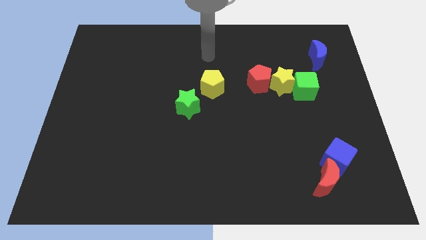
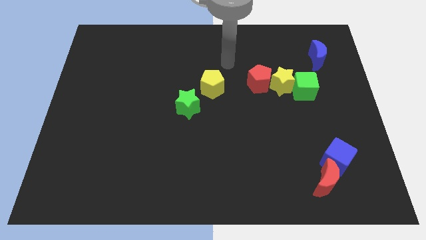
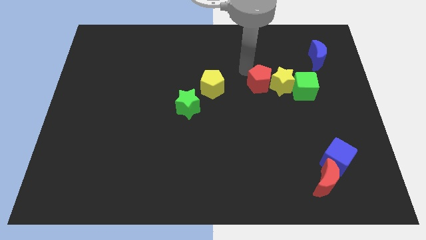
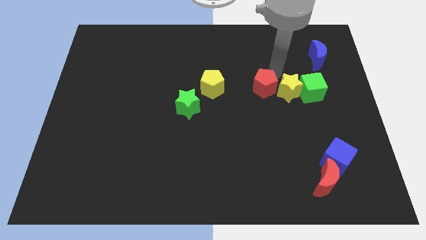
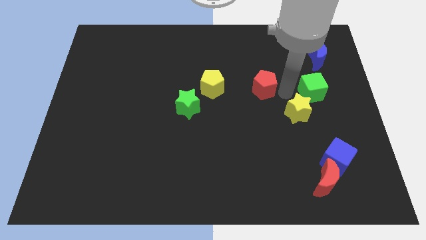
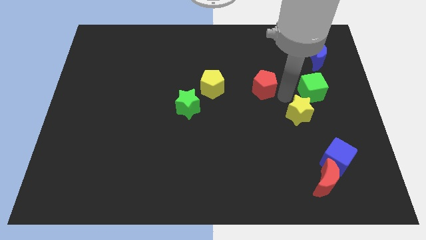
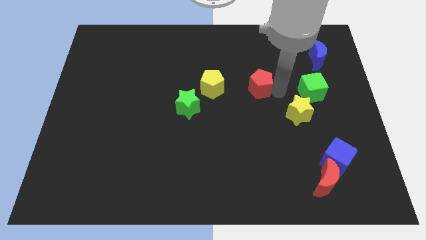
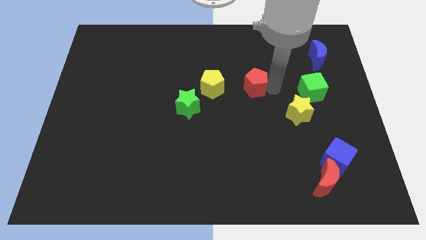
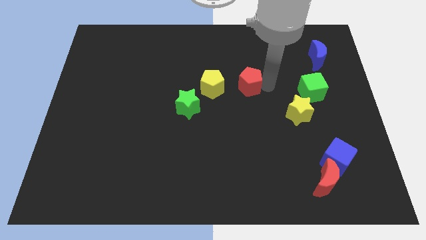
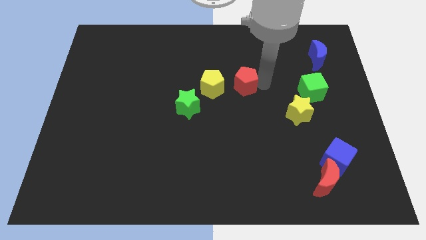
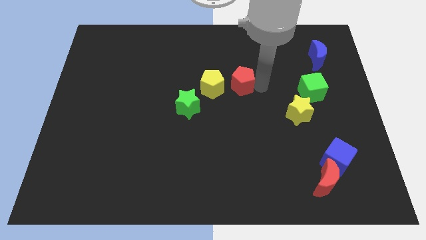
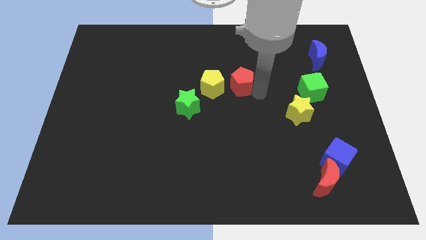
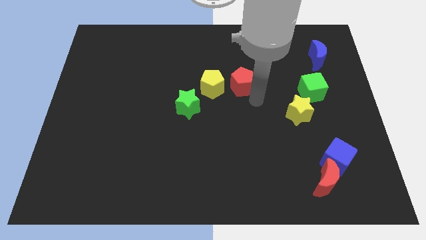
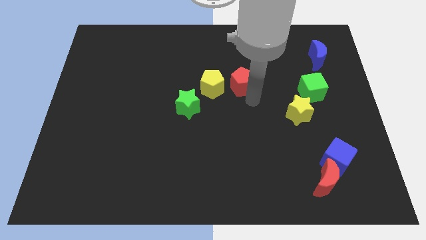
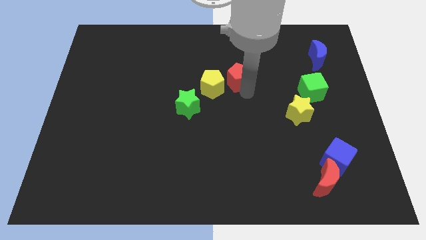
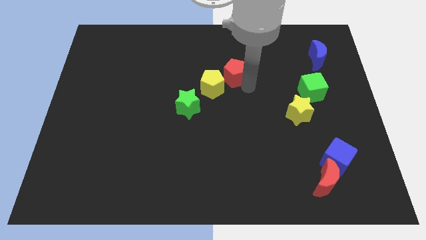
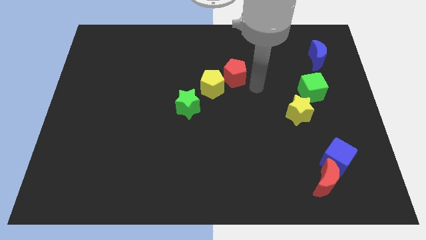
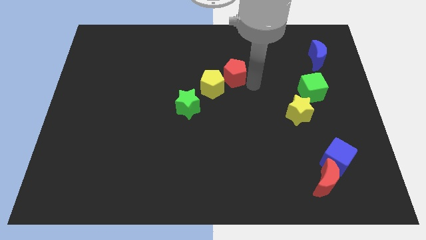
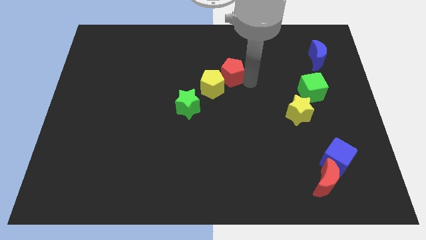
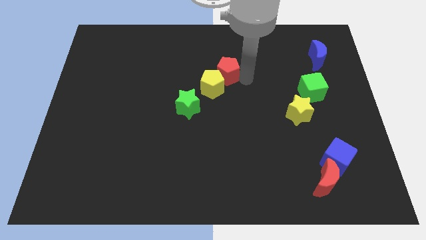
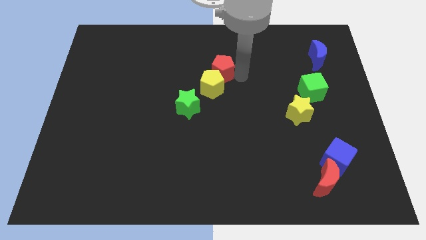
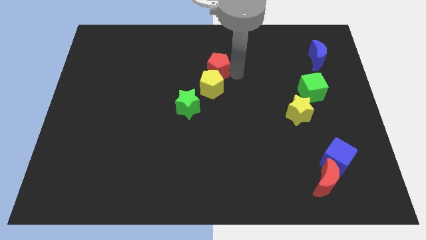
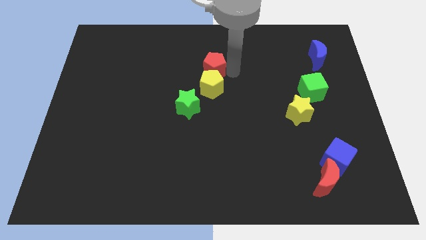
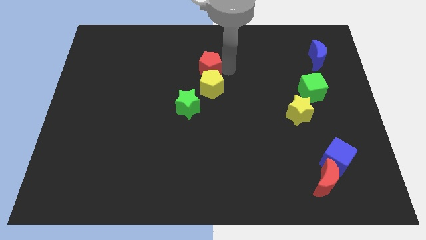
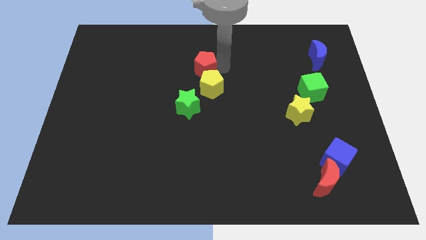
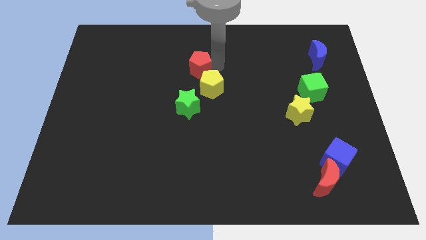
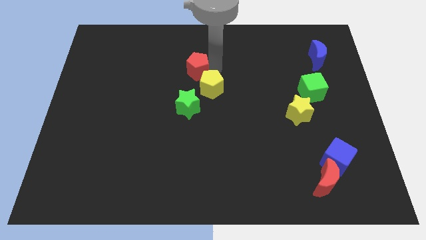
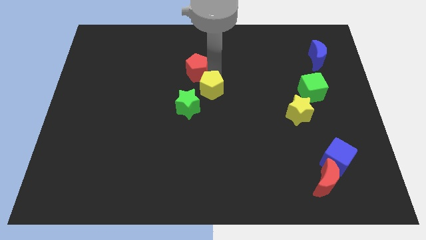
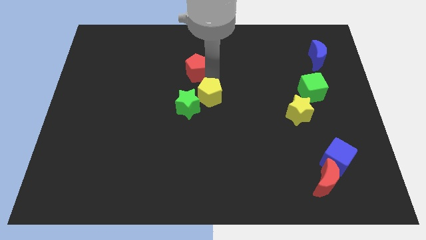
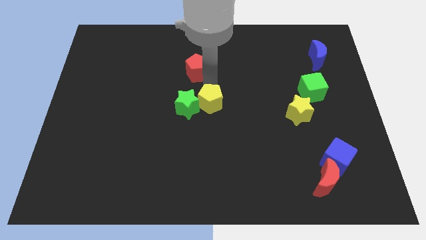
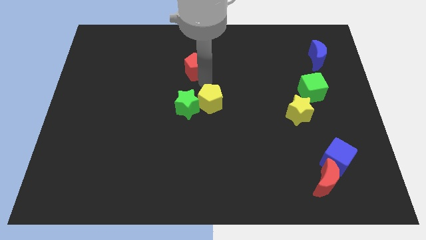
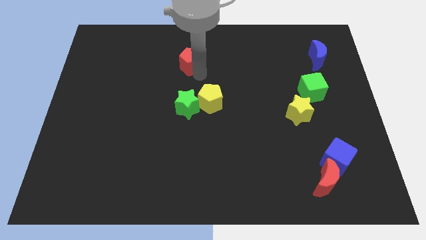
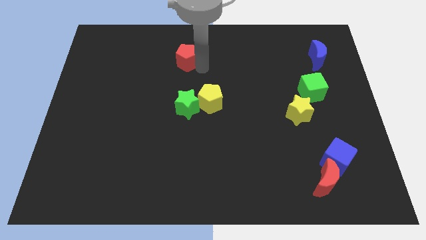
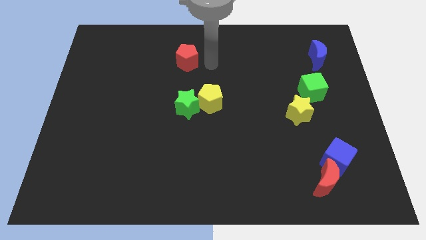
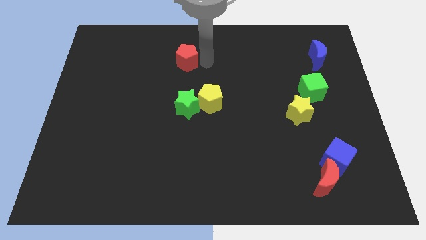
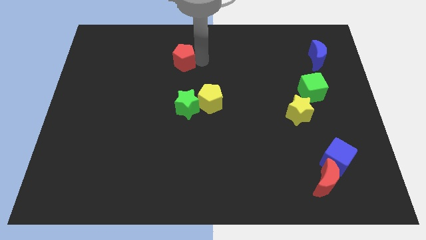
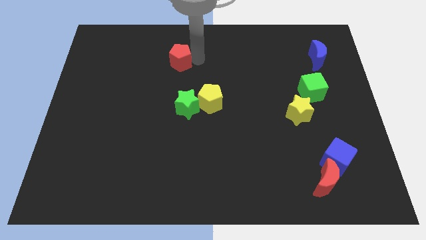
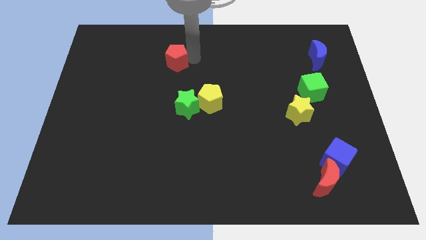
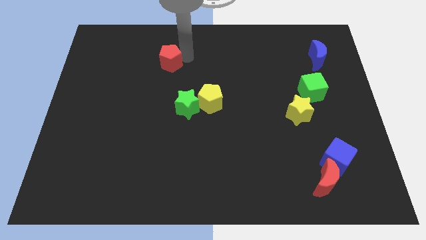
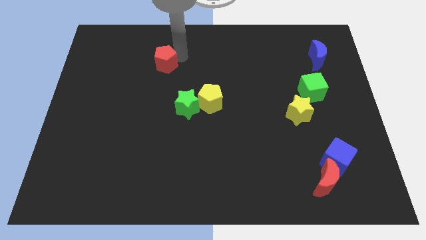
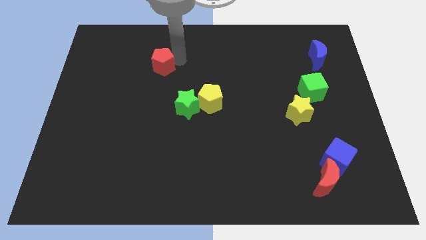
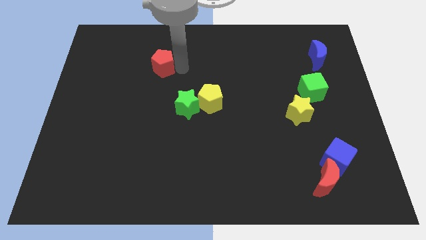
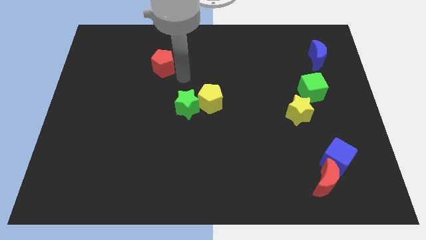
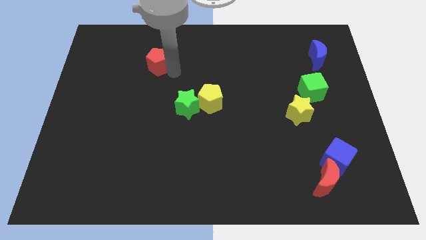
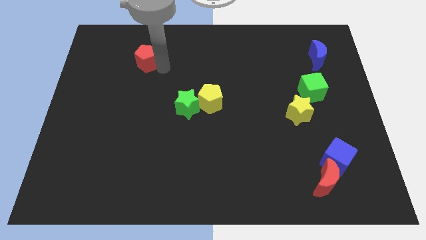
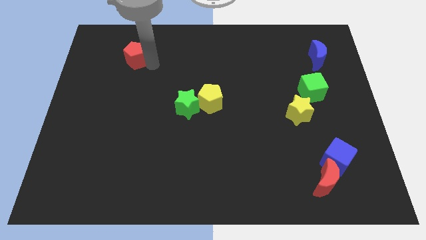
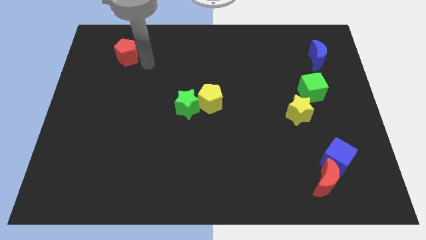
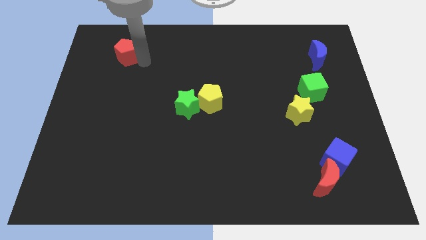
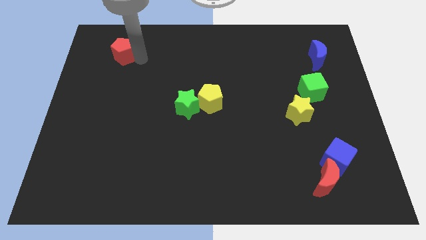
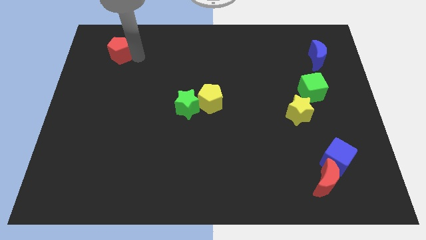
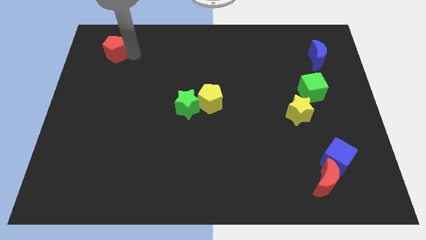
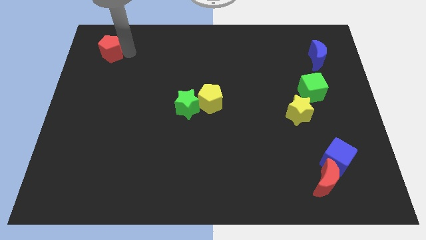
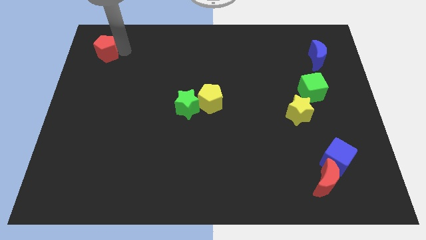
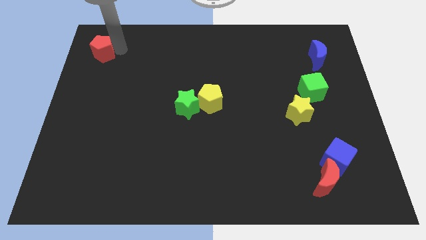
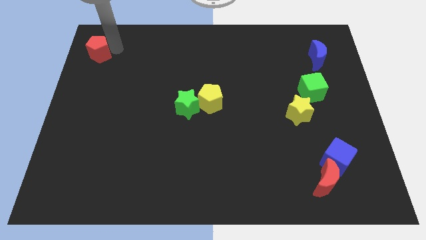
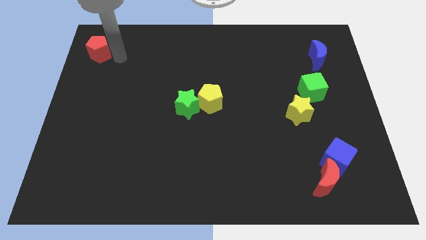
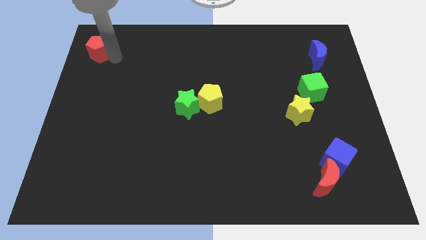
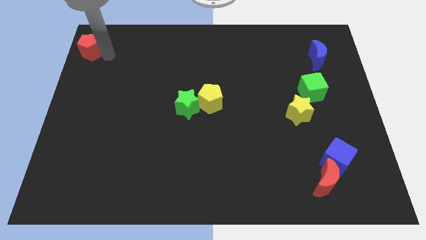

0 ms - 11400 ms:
push the red pentagon to the top left corner
